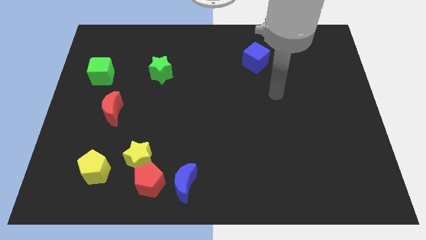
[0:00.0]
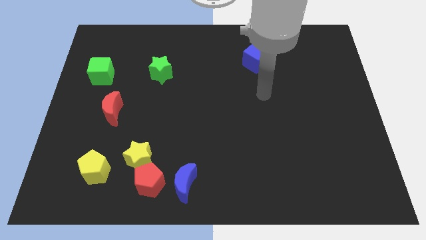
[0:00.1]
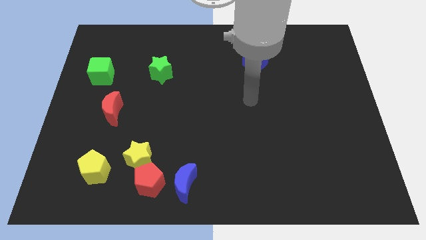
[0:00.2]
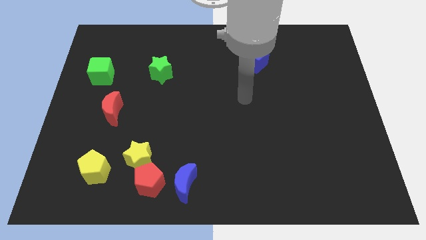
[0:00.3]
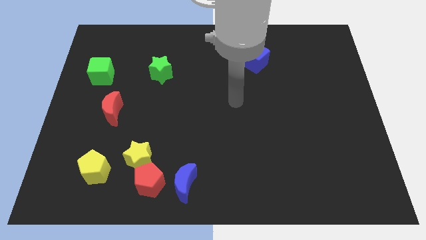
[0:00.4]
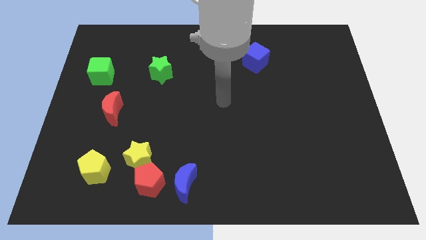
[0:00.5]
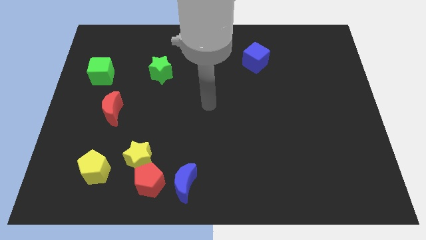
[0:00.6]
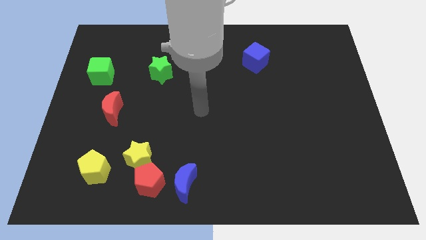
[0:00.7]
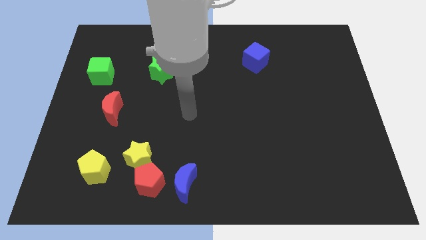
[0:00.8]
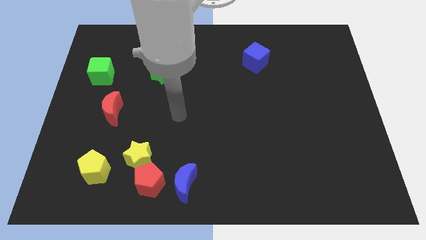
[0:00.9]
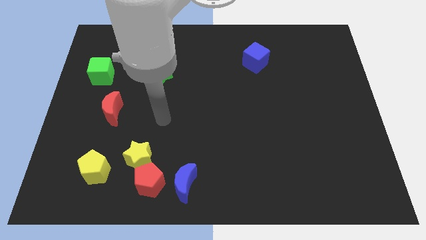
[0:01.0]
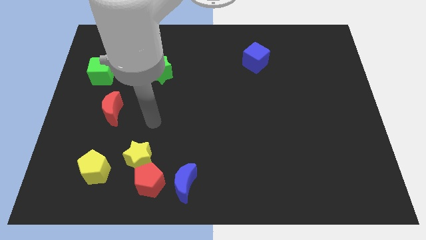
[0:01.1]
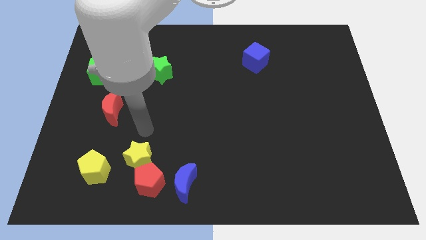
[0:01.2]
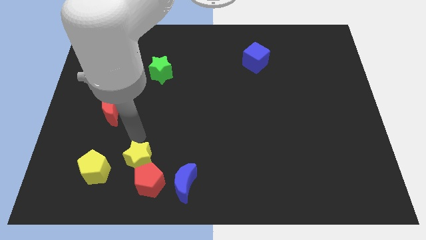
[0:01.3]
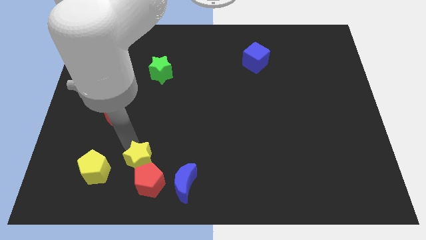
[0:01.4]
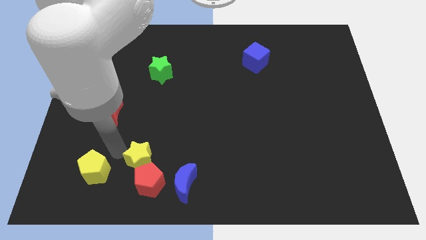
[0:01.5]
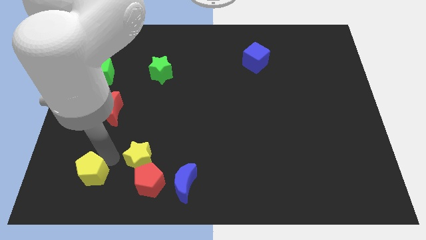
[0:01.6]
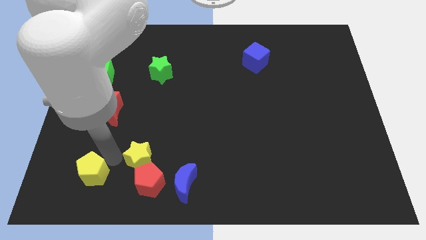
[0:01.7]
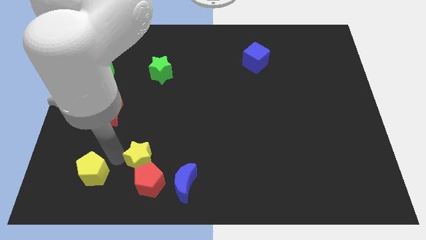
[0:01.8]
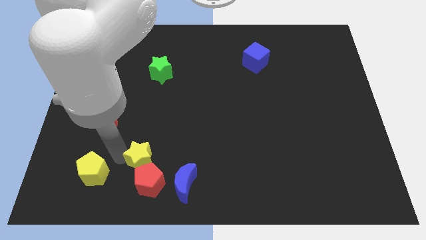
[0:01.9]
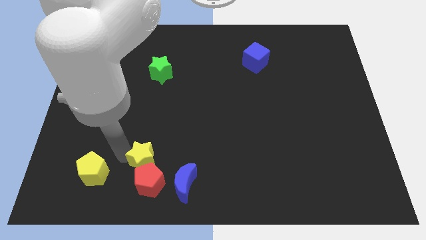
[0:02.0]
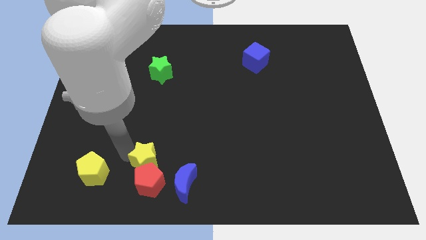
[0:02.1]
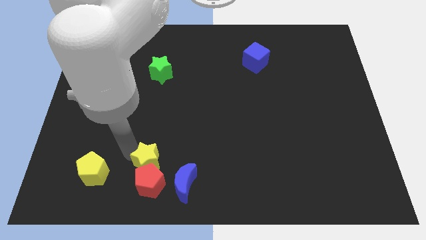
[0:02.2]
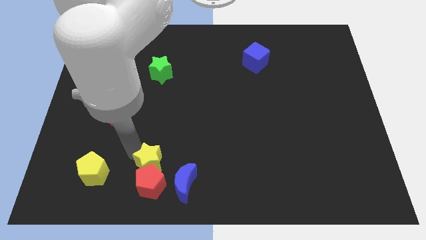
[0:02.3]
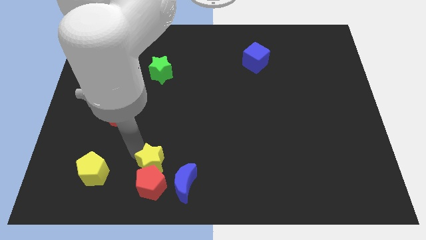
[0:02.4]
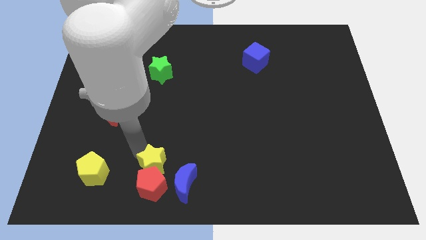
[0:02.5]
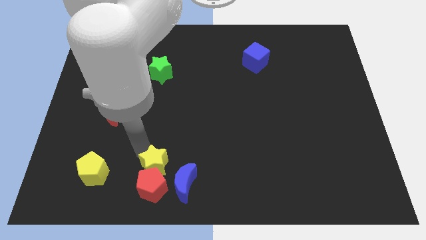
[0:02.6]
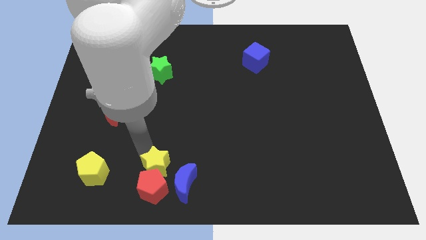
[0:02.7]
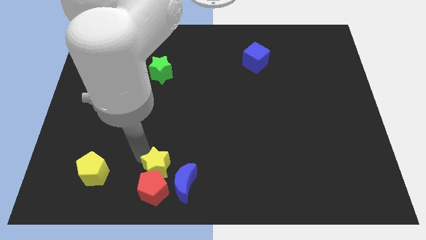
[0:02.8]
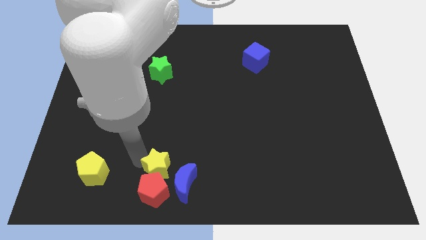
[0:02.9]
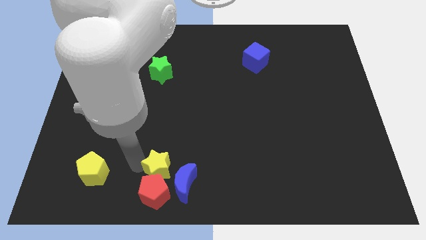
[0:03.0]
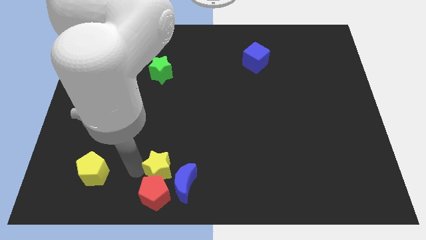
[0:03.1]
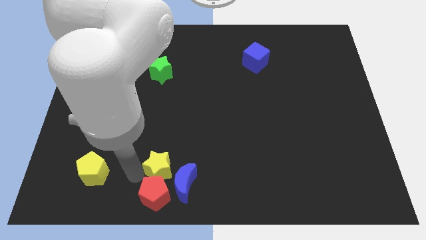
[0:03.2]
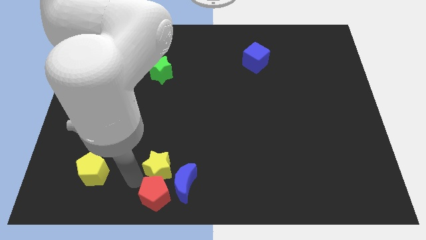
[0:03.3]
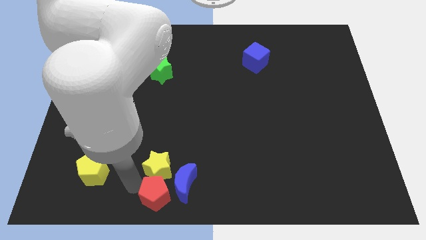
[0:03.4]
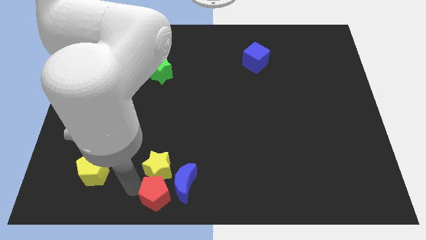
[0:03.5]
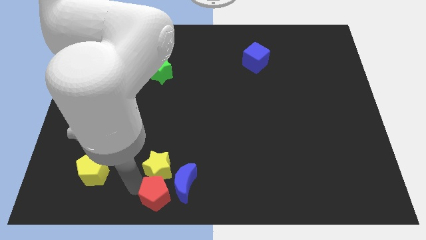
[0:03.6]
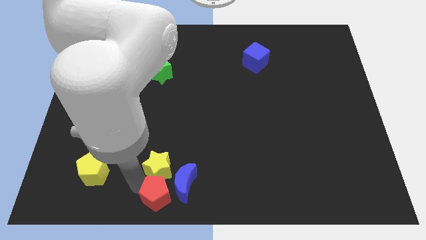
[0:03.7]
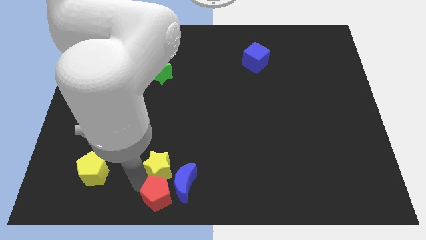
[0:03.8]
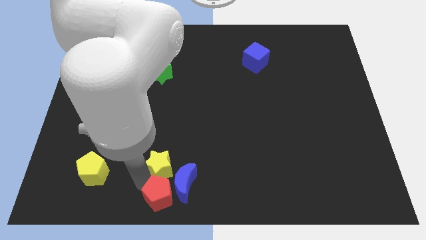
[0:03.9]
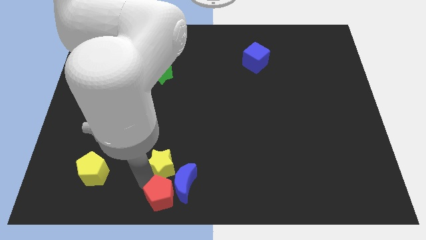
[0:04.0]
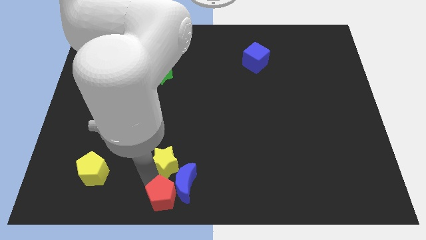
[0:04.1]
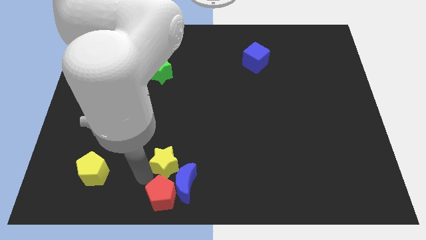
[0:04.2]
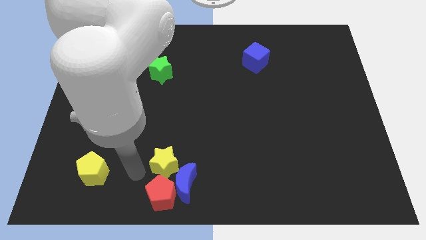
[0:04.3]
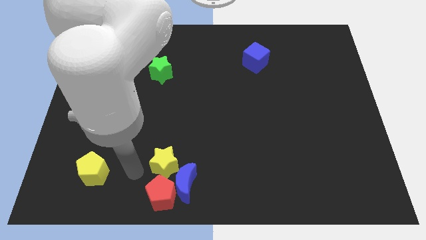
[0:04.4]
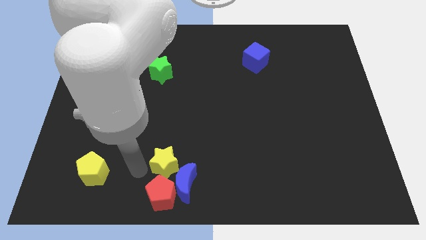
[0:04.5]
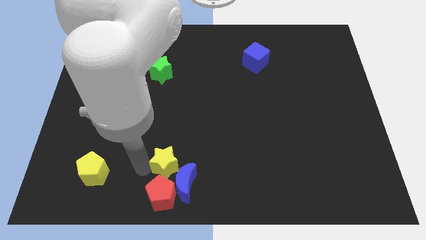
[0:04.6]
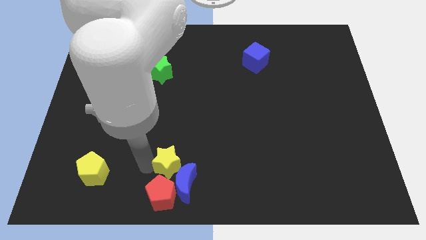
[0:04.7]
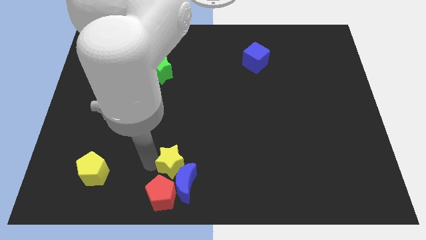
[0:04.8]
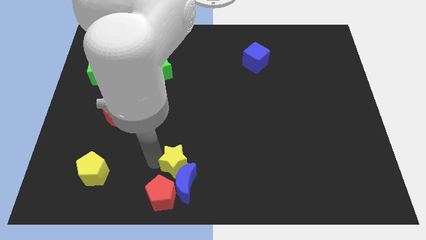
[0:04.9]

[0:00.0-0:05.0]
put the yellow star to the bottom
